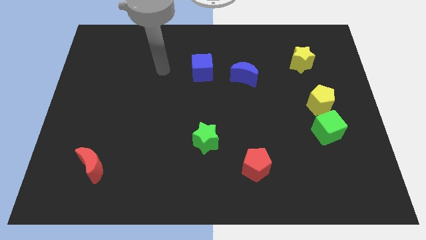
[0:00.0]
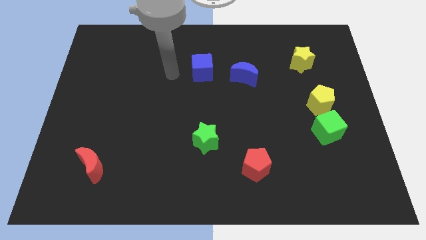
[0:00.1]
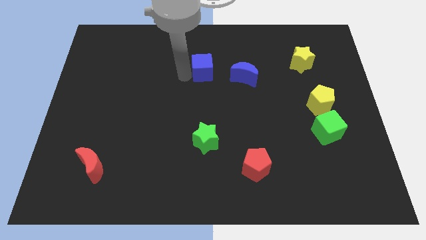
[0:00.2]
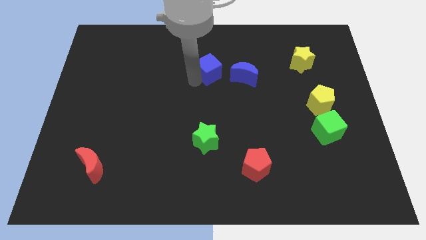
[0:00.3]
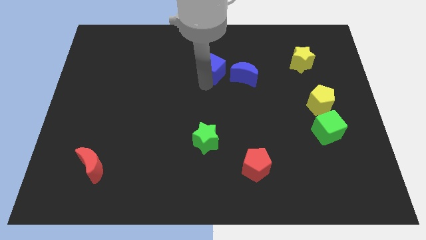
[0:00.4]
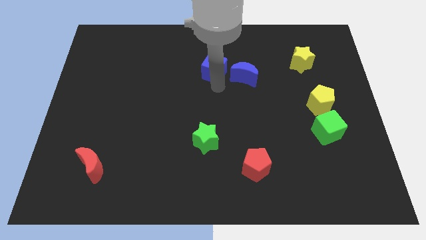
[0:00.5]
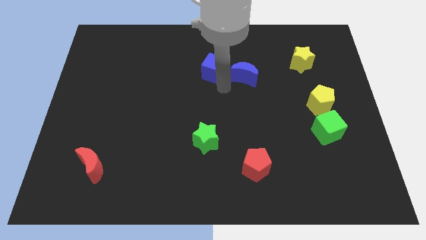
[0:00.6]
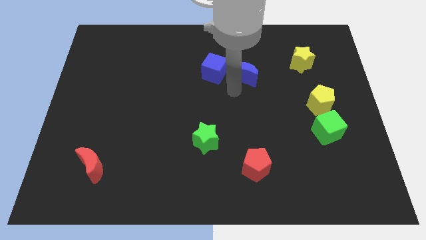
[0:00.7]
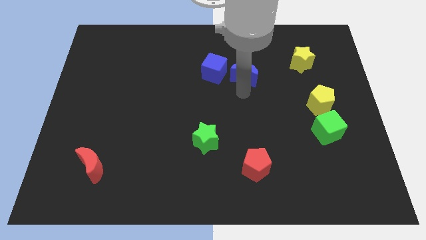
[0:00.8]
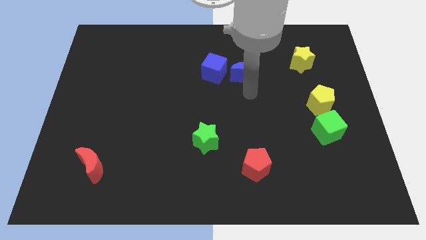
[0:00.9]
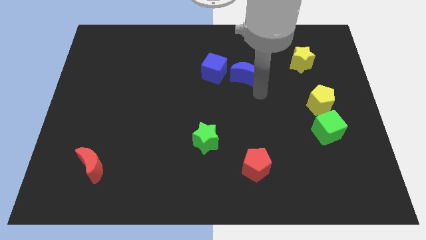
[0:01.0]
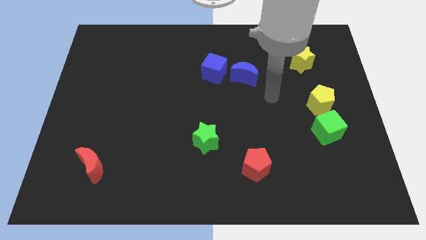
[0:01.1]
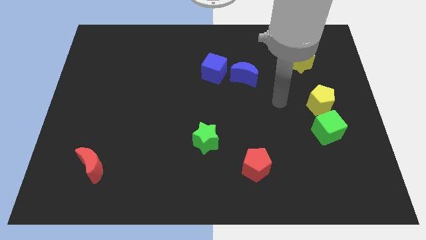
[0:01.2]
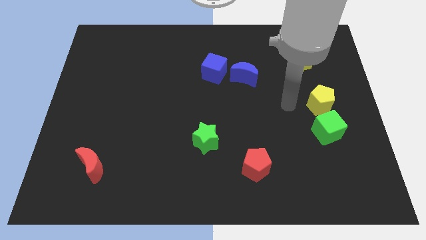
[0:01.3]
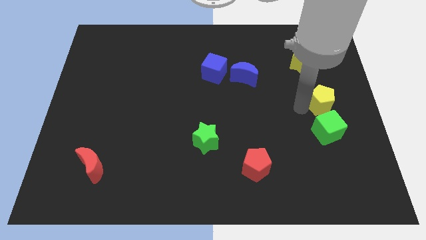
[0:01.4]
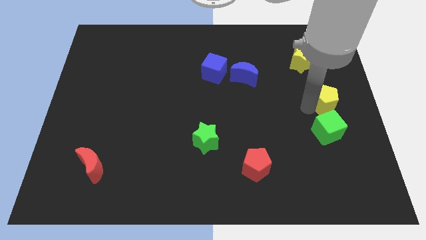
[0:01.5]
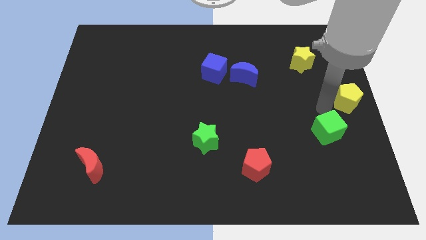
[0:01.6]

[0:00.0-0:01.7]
move the green cube away from the yellow pentagon

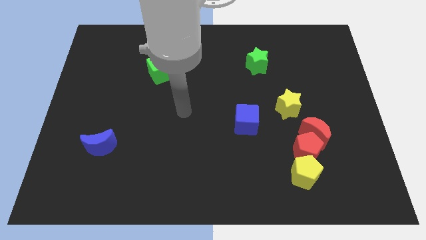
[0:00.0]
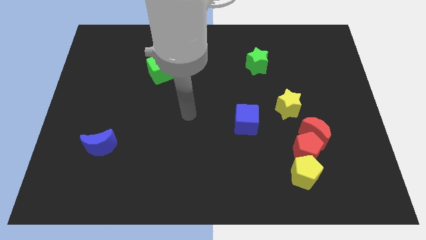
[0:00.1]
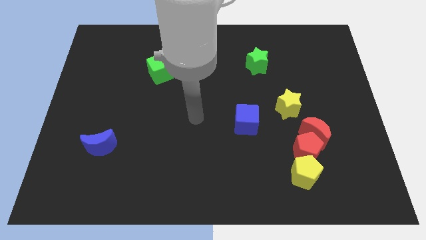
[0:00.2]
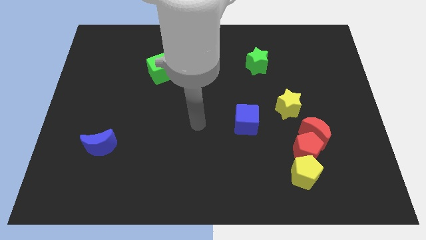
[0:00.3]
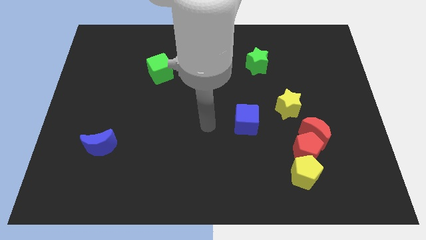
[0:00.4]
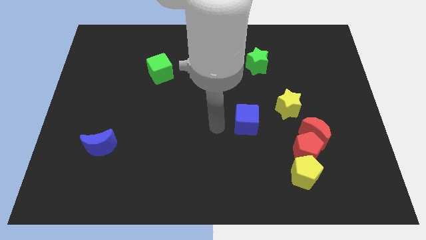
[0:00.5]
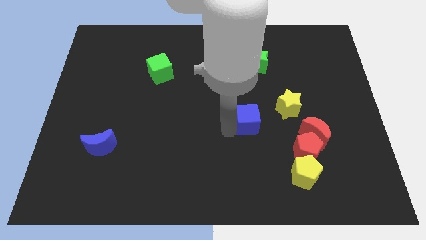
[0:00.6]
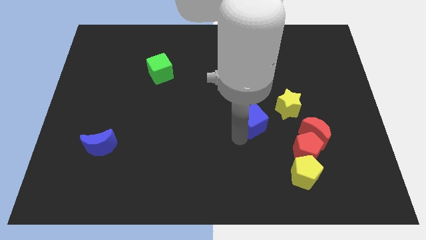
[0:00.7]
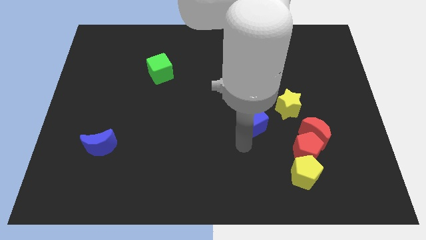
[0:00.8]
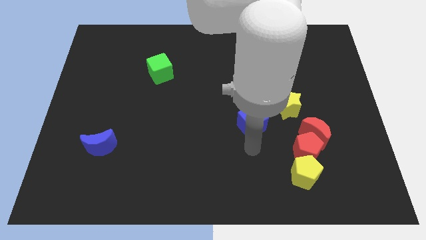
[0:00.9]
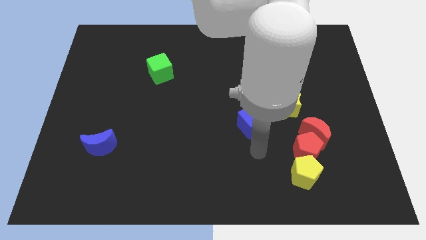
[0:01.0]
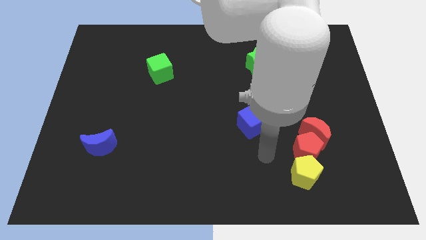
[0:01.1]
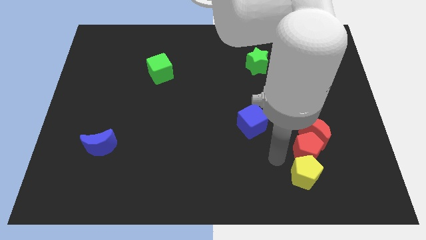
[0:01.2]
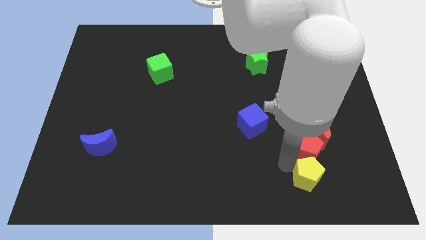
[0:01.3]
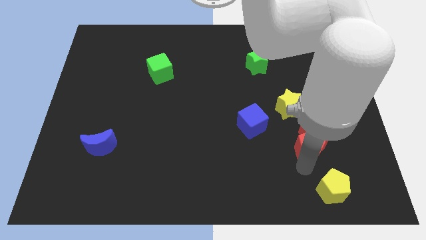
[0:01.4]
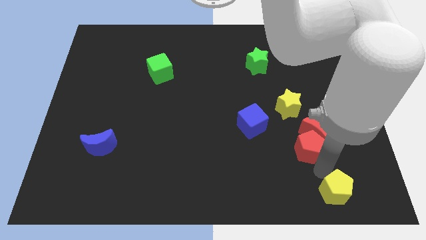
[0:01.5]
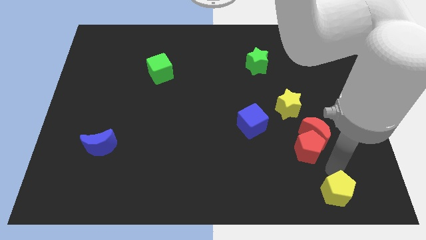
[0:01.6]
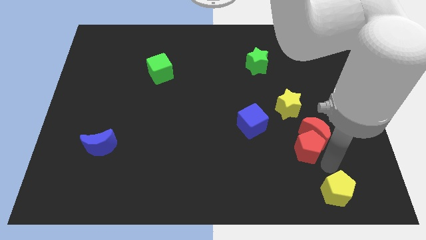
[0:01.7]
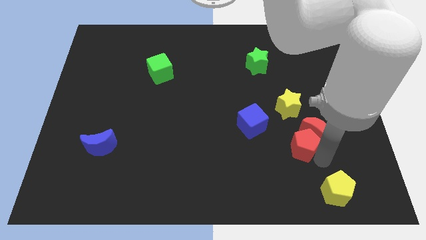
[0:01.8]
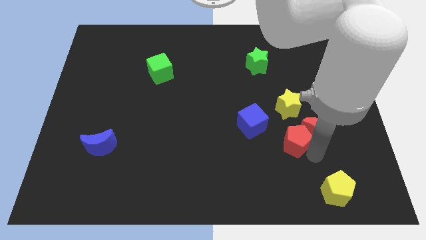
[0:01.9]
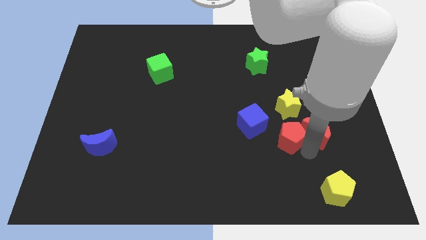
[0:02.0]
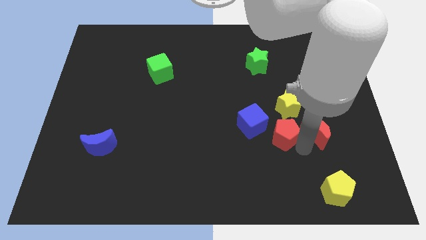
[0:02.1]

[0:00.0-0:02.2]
pull the red pentagon apart from the red moon and yellow pentagon

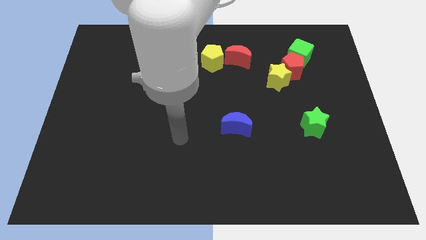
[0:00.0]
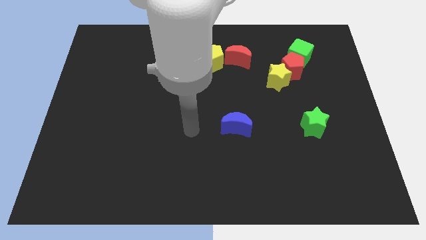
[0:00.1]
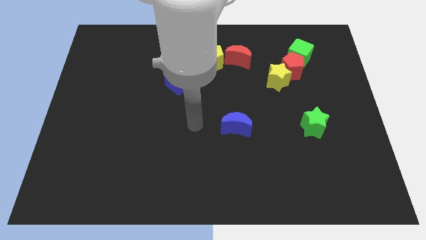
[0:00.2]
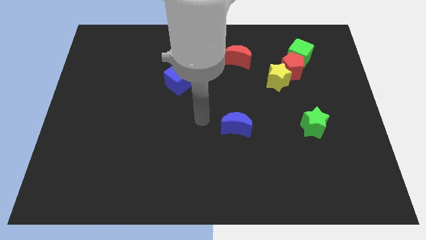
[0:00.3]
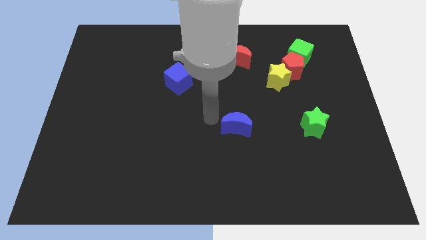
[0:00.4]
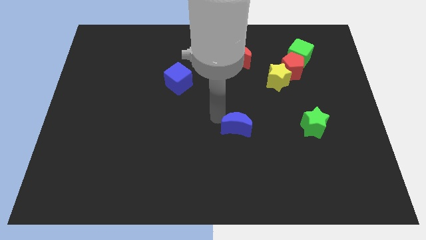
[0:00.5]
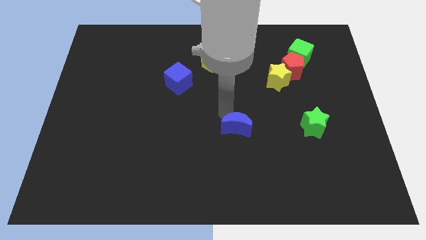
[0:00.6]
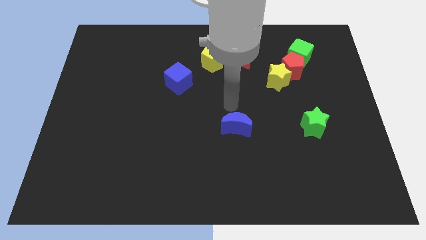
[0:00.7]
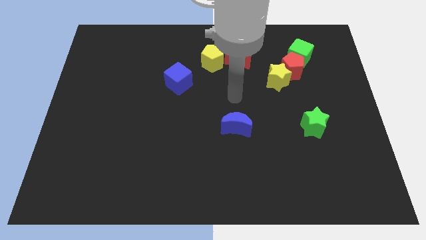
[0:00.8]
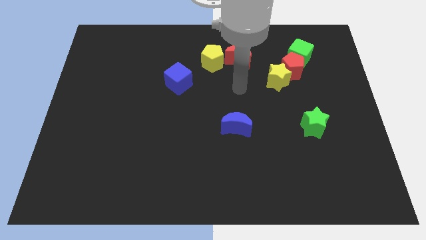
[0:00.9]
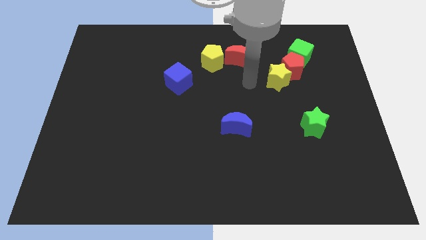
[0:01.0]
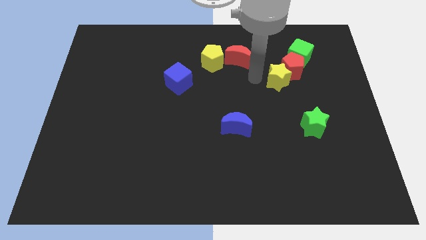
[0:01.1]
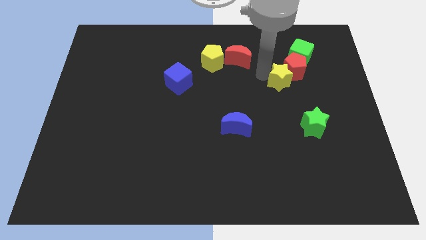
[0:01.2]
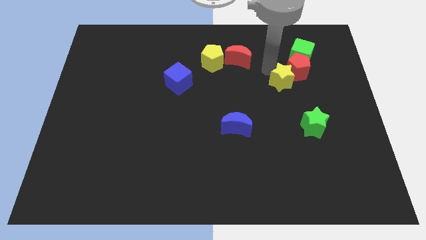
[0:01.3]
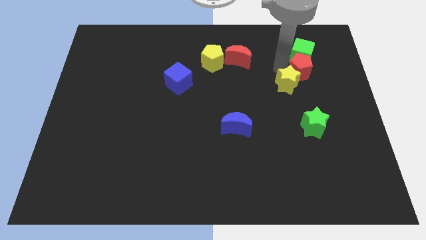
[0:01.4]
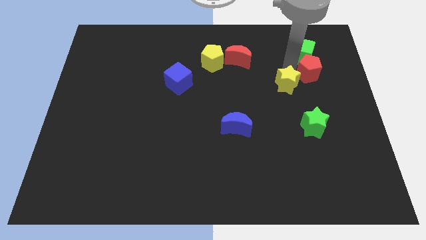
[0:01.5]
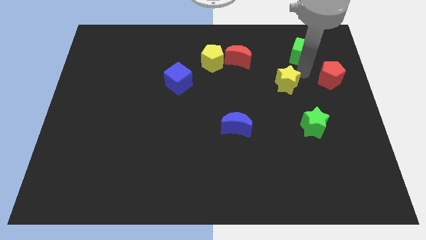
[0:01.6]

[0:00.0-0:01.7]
pull the yellow star apart from the red pentagon

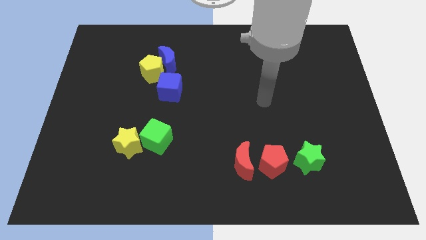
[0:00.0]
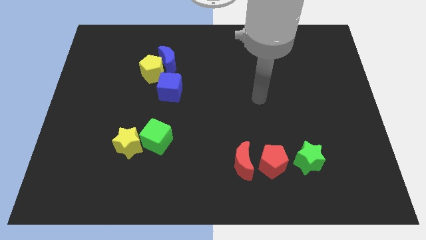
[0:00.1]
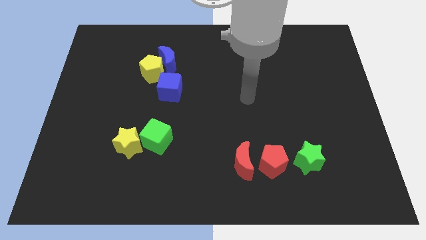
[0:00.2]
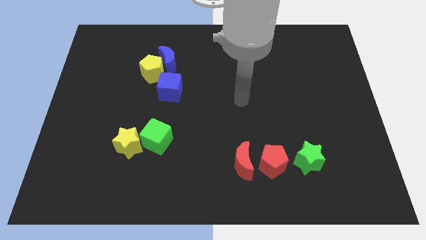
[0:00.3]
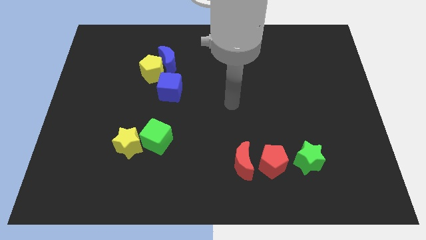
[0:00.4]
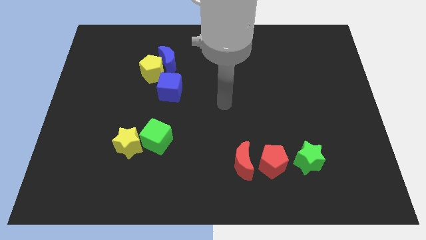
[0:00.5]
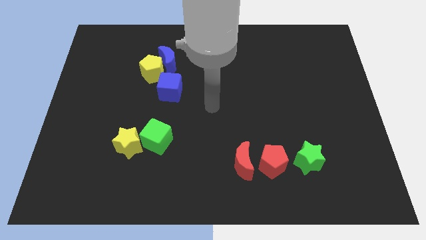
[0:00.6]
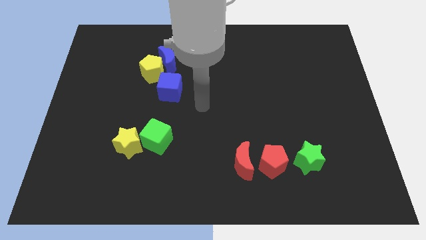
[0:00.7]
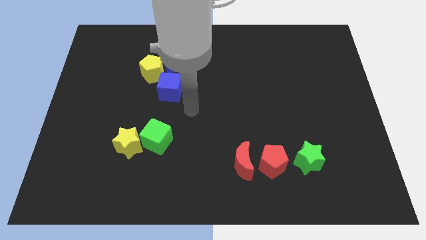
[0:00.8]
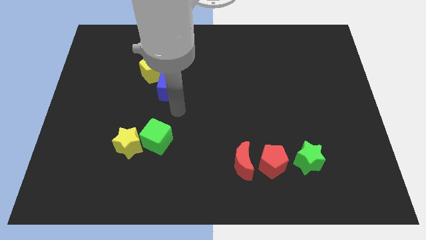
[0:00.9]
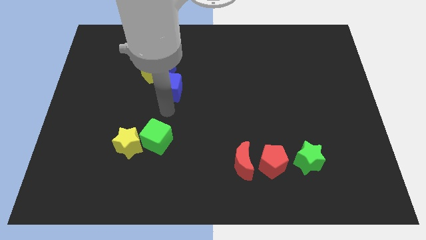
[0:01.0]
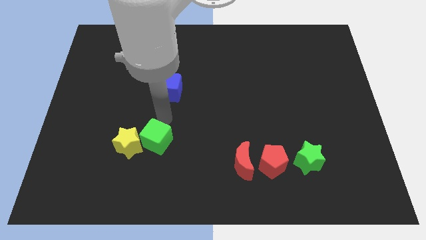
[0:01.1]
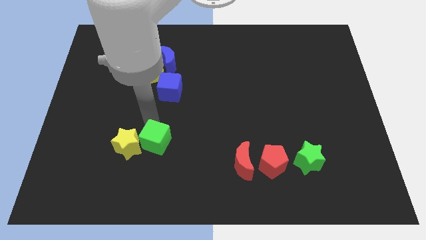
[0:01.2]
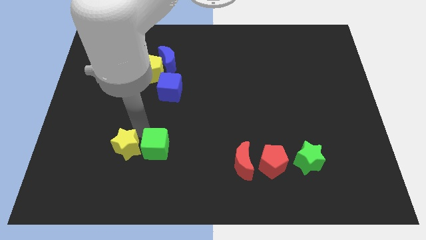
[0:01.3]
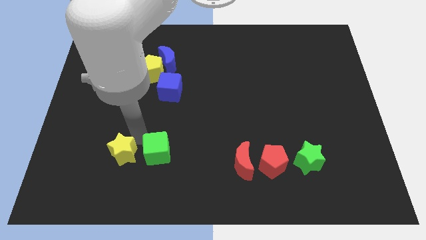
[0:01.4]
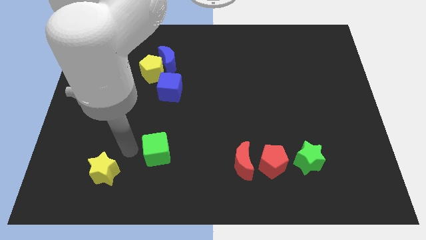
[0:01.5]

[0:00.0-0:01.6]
pull the green cube apart from the yellow star

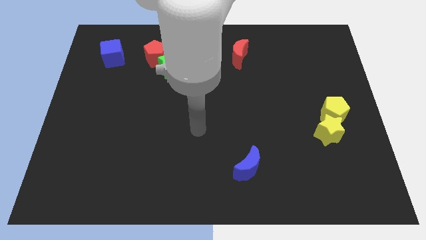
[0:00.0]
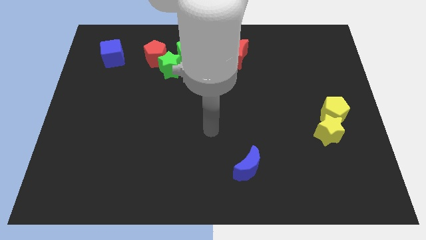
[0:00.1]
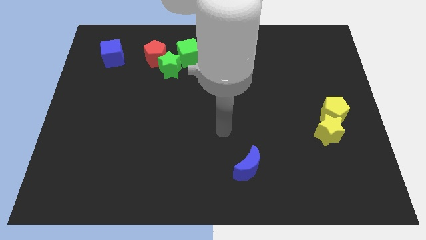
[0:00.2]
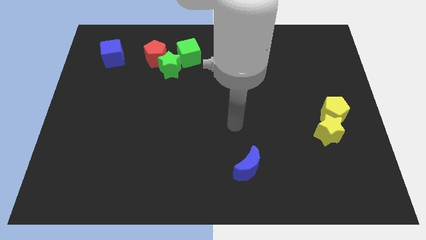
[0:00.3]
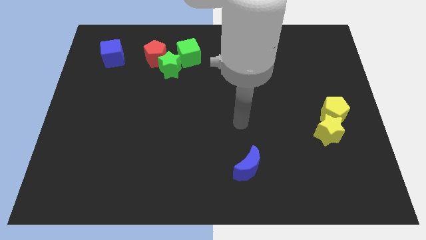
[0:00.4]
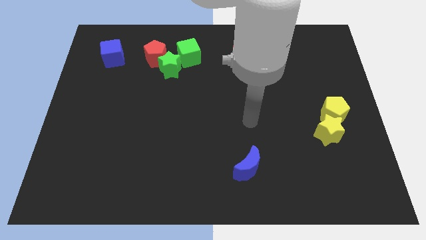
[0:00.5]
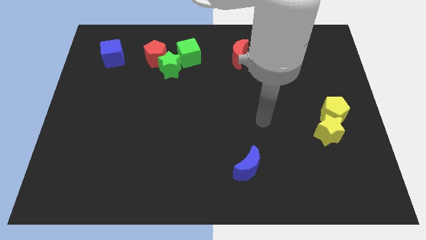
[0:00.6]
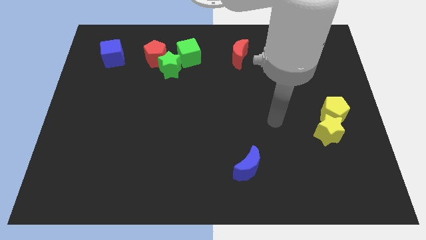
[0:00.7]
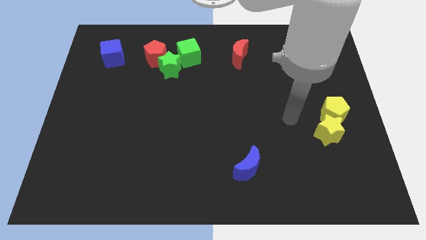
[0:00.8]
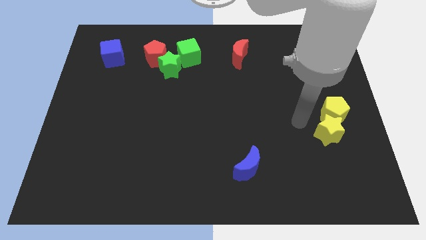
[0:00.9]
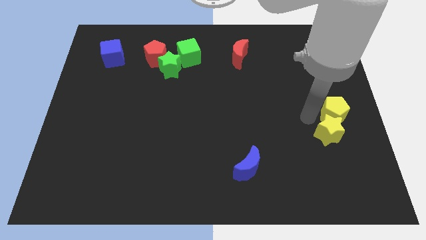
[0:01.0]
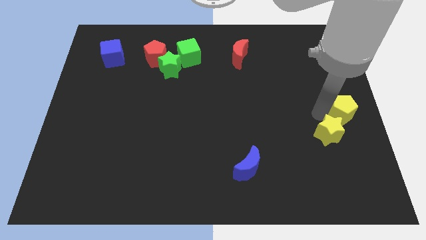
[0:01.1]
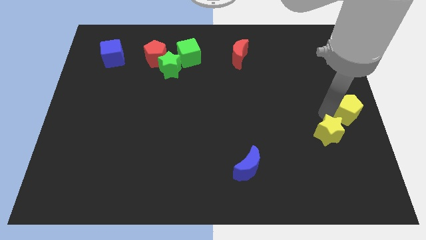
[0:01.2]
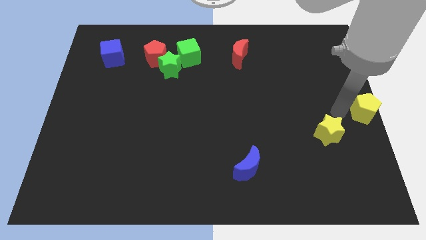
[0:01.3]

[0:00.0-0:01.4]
move the yellow star away from the yellow pentagon

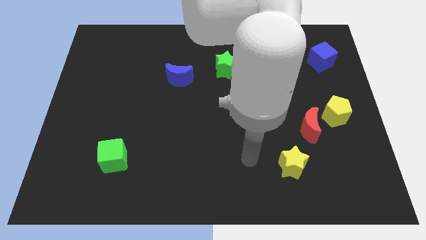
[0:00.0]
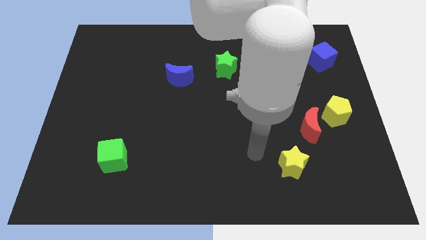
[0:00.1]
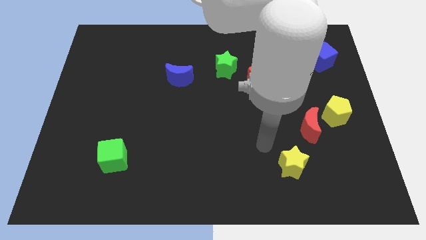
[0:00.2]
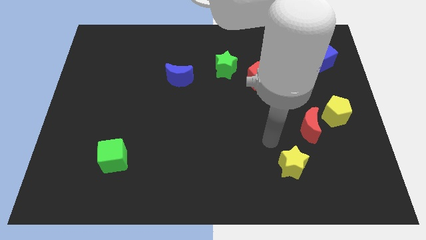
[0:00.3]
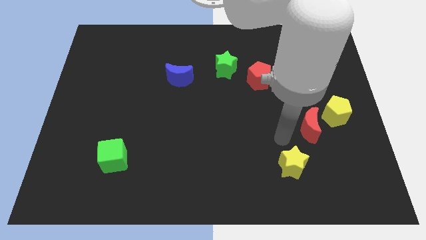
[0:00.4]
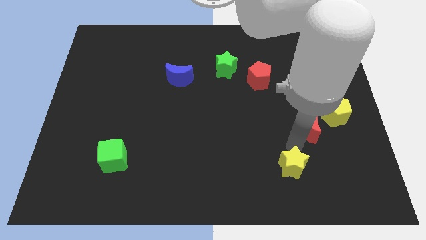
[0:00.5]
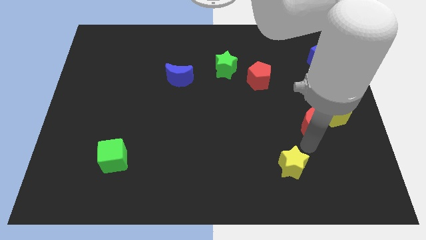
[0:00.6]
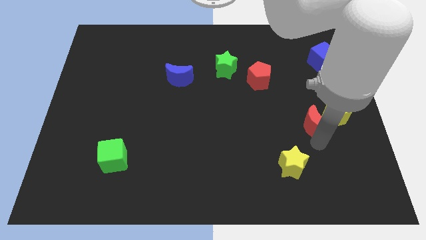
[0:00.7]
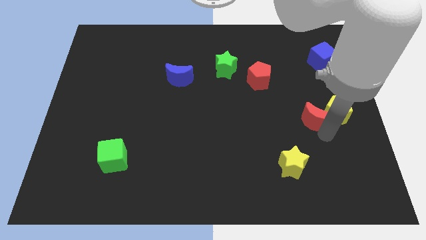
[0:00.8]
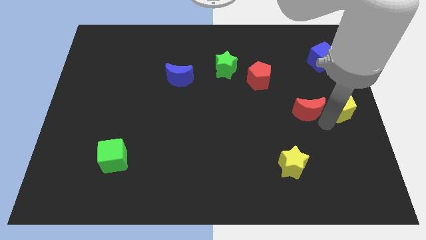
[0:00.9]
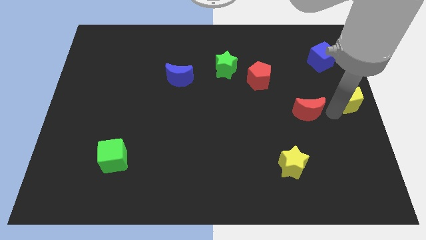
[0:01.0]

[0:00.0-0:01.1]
pull the red moon apart from the yellow pentagon
